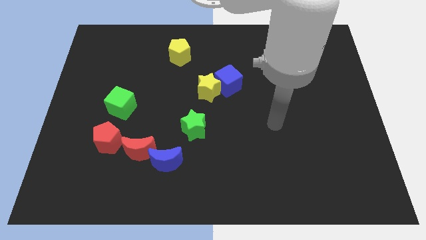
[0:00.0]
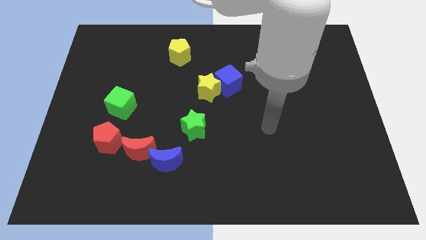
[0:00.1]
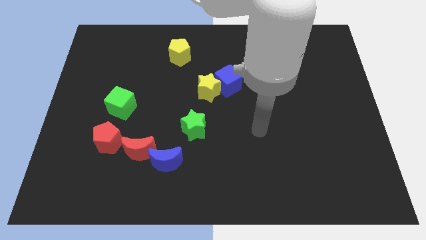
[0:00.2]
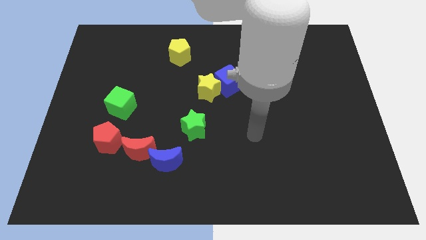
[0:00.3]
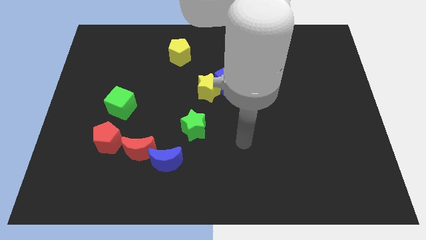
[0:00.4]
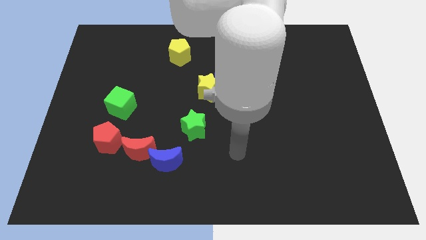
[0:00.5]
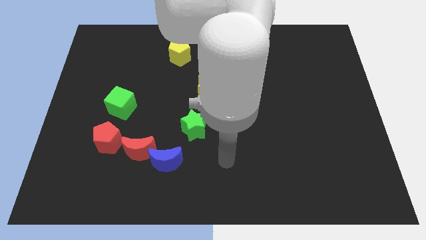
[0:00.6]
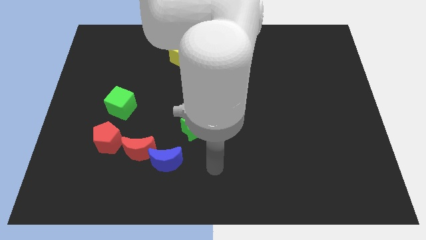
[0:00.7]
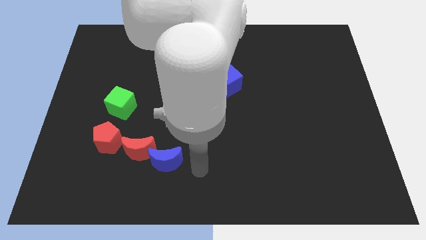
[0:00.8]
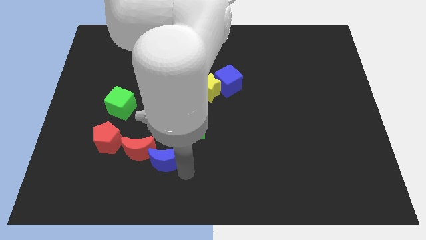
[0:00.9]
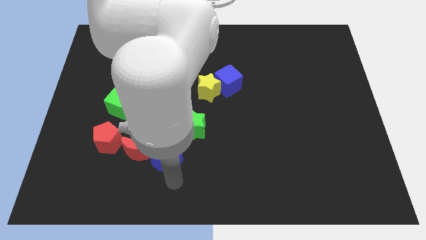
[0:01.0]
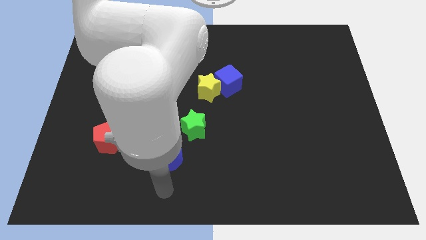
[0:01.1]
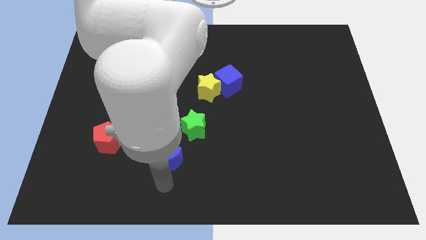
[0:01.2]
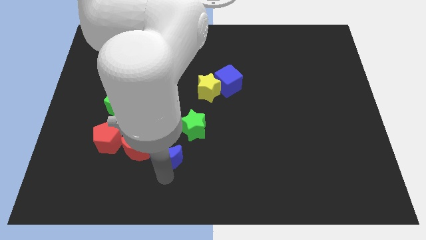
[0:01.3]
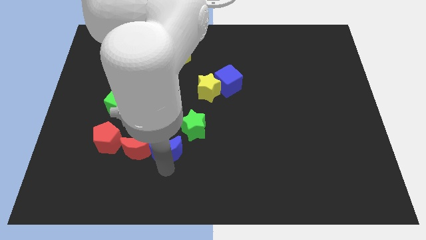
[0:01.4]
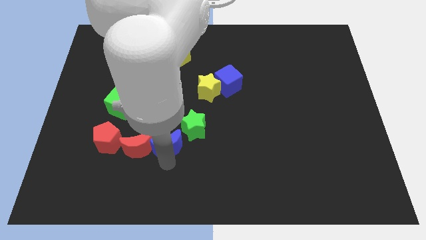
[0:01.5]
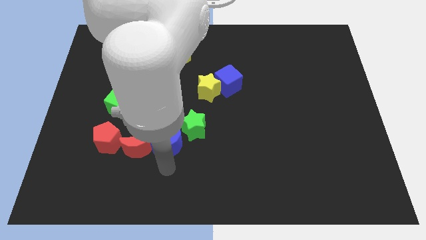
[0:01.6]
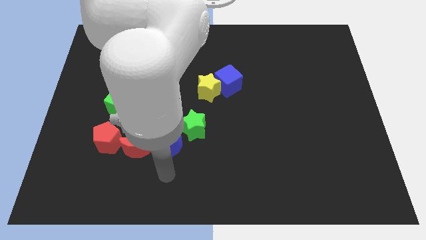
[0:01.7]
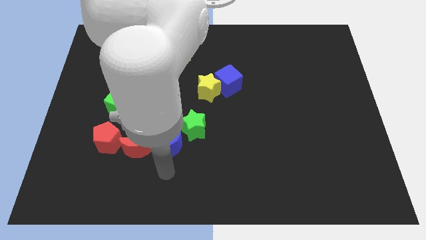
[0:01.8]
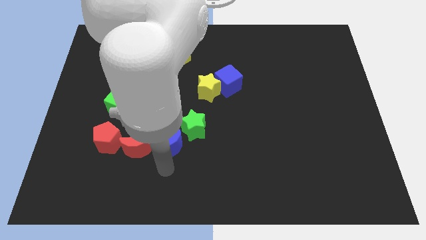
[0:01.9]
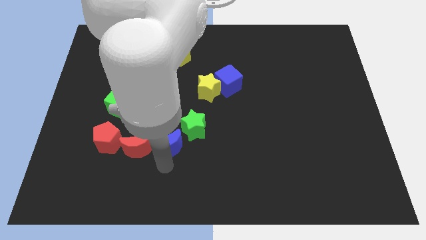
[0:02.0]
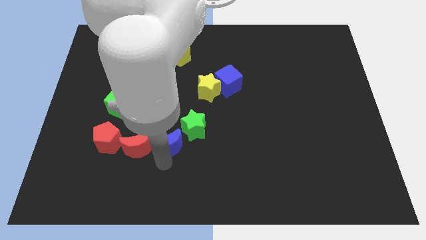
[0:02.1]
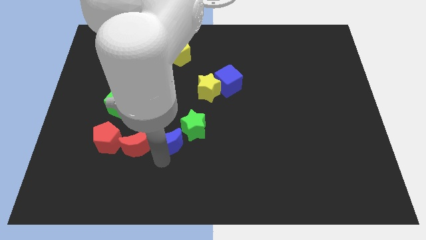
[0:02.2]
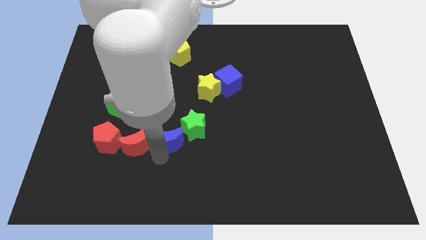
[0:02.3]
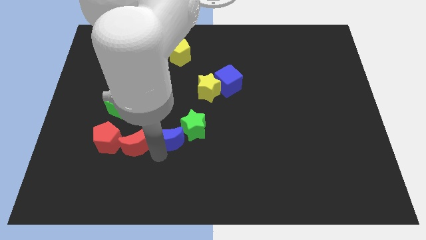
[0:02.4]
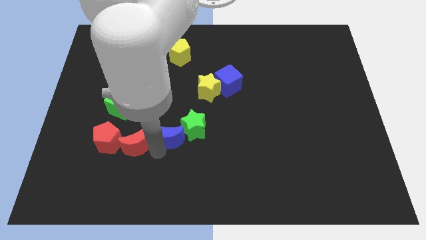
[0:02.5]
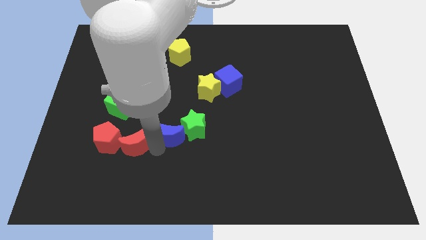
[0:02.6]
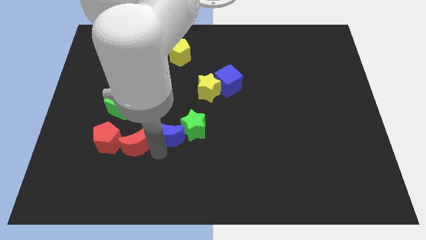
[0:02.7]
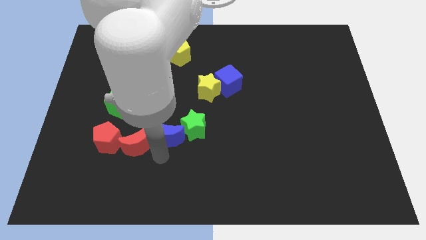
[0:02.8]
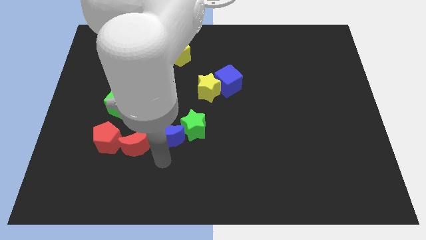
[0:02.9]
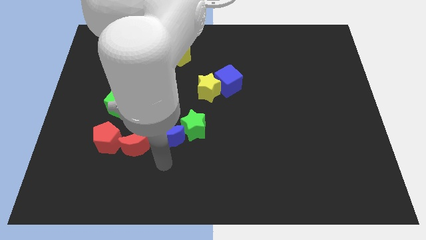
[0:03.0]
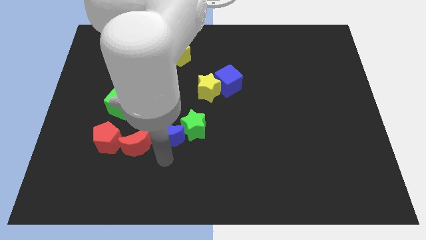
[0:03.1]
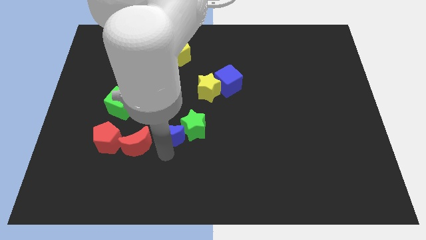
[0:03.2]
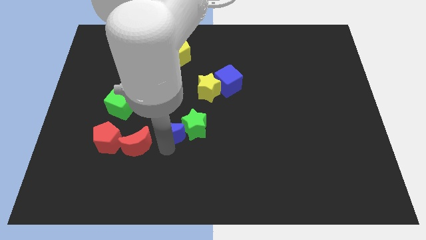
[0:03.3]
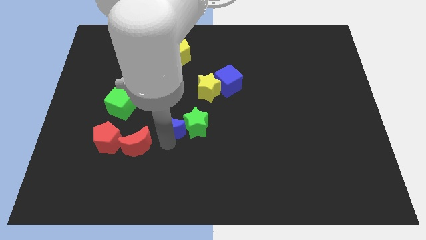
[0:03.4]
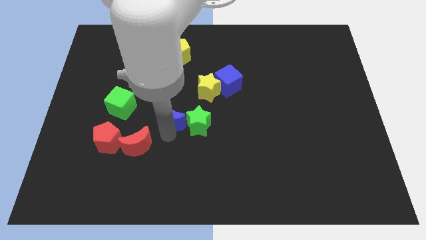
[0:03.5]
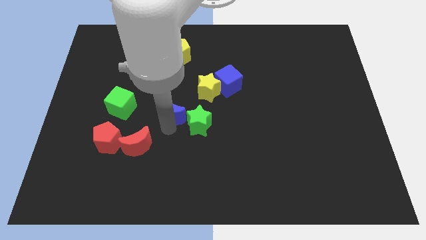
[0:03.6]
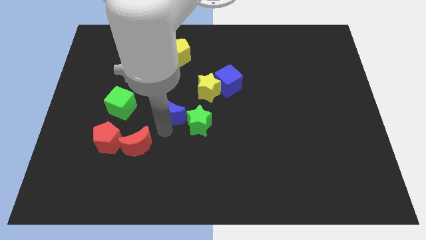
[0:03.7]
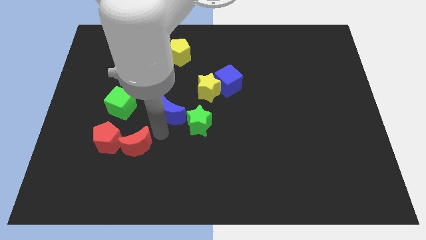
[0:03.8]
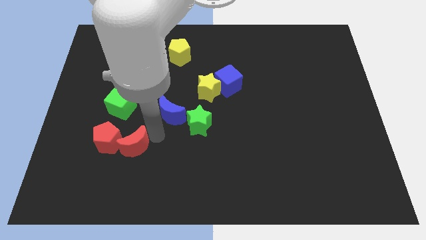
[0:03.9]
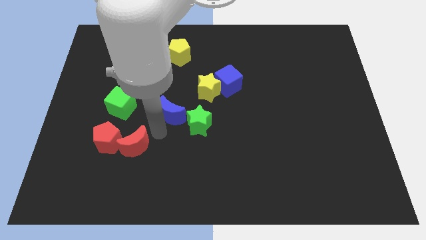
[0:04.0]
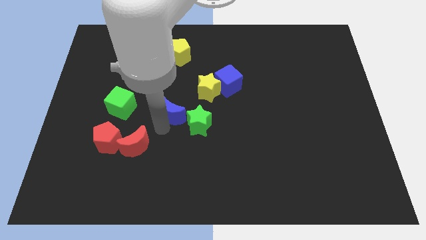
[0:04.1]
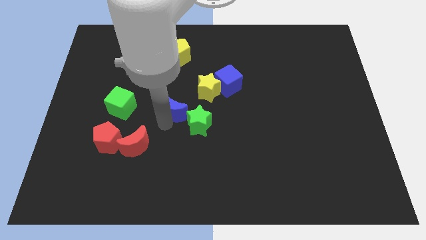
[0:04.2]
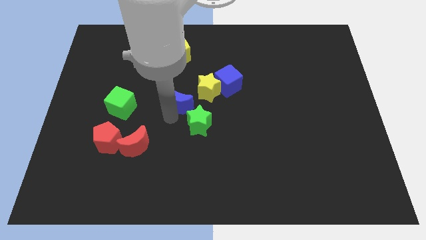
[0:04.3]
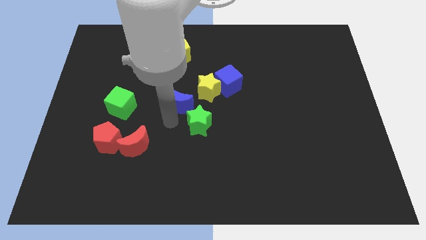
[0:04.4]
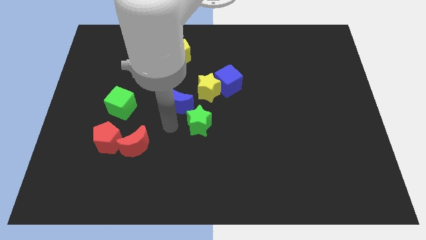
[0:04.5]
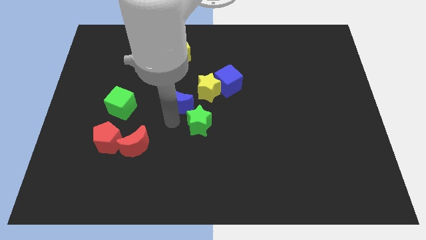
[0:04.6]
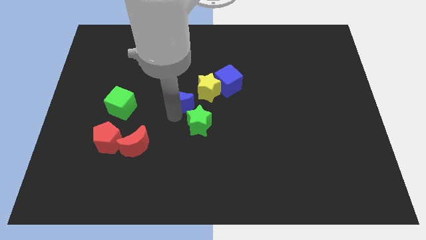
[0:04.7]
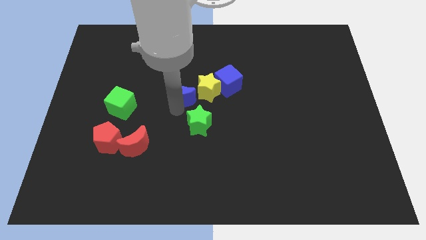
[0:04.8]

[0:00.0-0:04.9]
slide the blue moon left of the blue cube

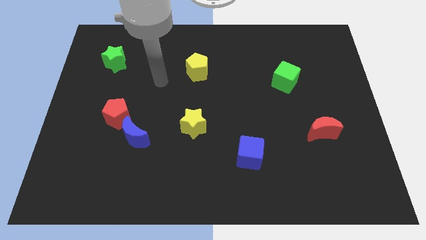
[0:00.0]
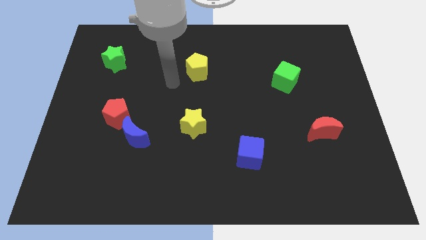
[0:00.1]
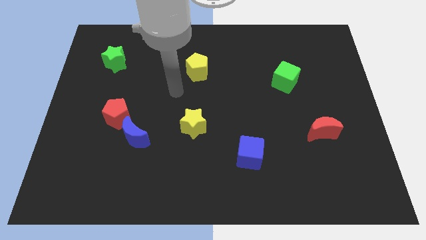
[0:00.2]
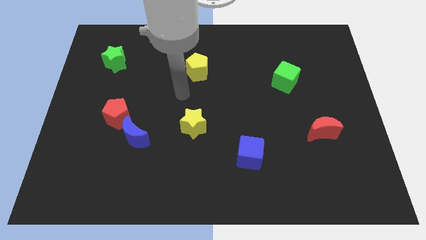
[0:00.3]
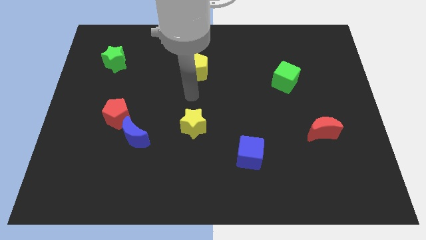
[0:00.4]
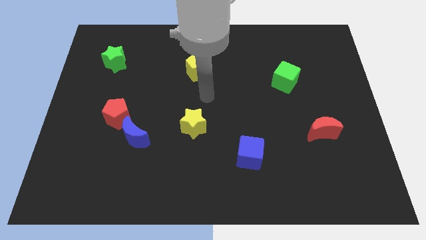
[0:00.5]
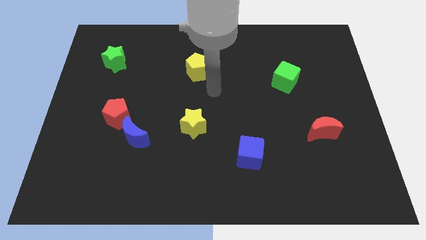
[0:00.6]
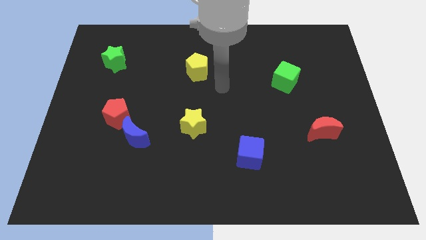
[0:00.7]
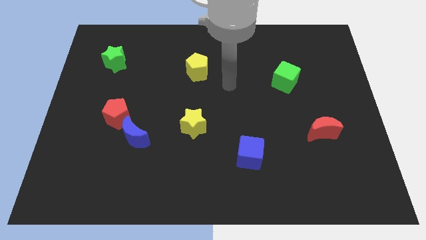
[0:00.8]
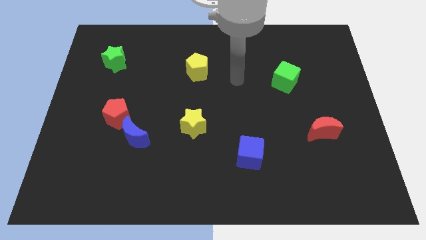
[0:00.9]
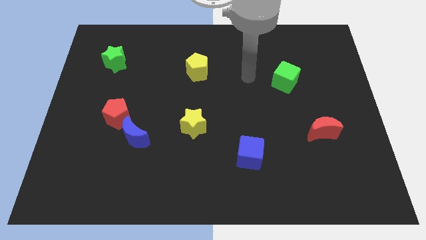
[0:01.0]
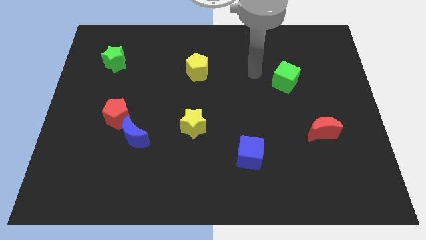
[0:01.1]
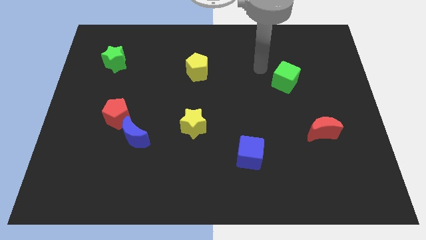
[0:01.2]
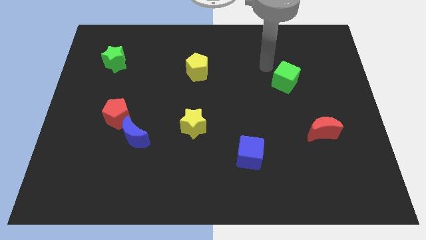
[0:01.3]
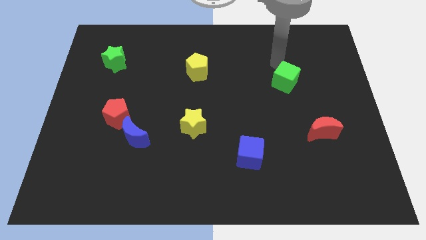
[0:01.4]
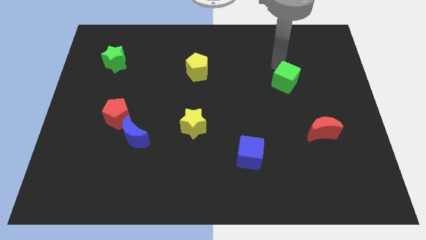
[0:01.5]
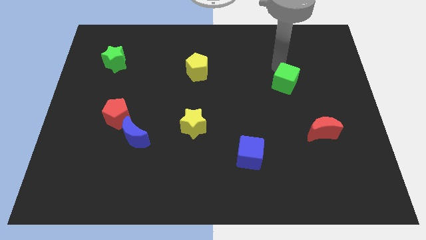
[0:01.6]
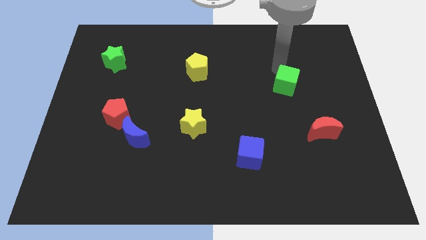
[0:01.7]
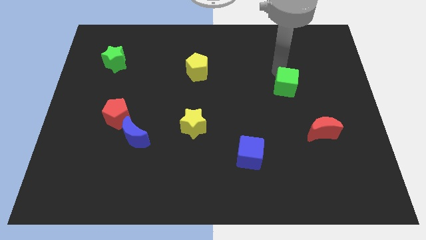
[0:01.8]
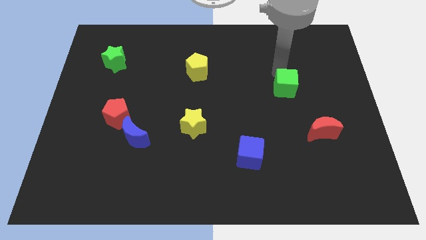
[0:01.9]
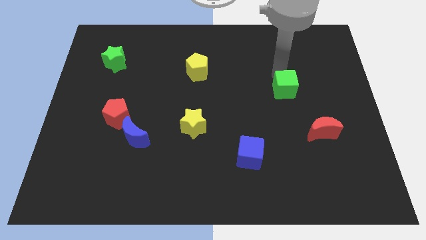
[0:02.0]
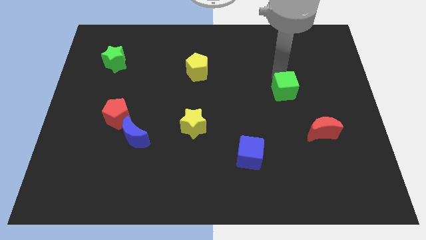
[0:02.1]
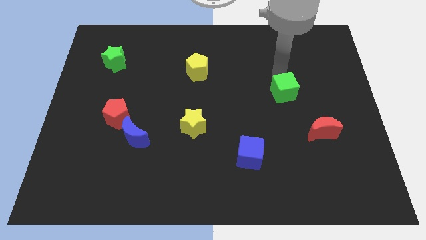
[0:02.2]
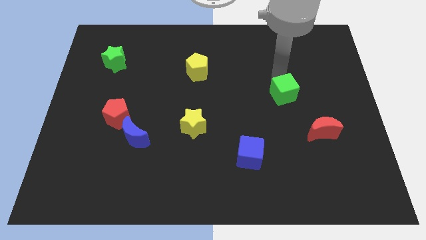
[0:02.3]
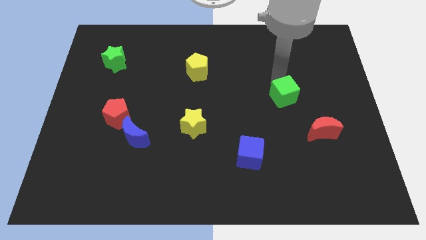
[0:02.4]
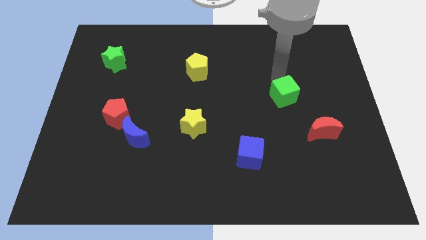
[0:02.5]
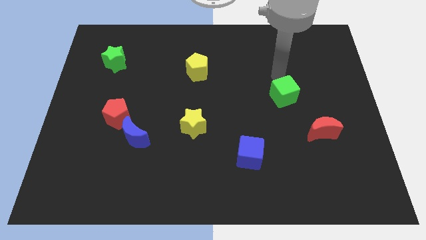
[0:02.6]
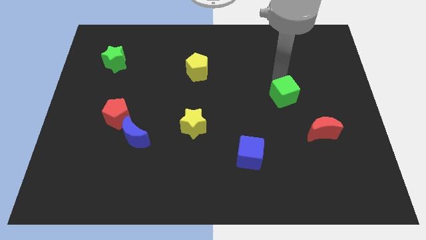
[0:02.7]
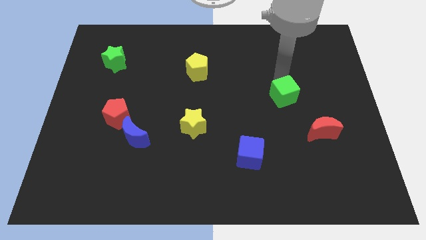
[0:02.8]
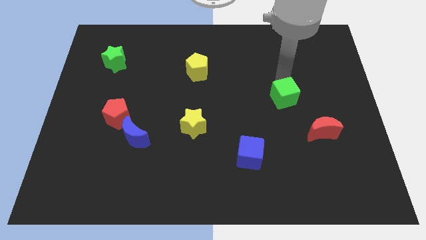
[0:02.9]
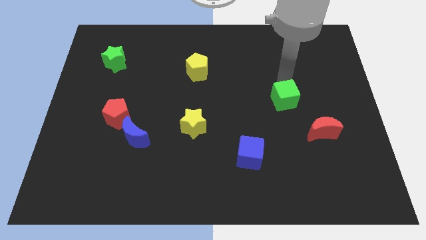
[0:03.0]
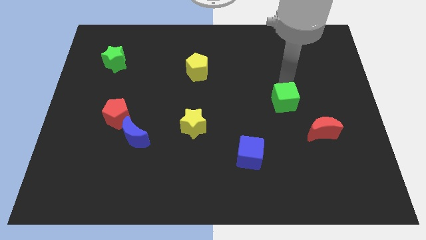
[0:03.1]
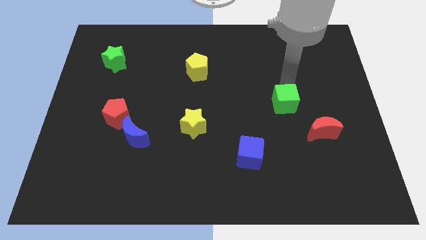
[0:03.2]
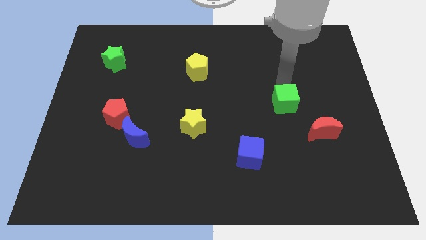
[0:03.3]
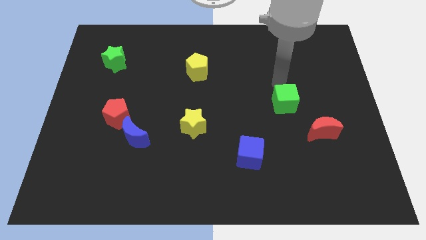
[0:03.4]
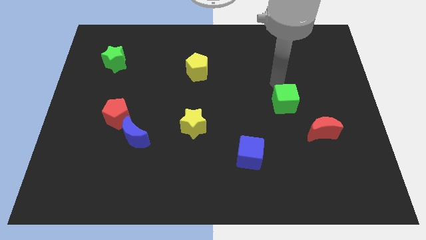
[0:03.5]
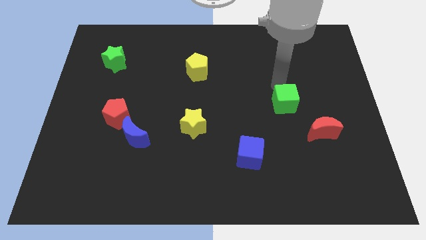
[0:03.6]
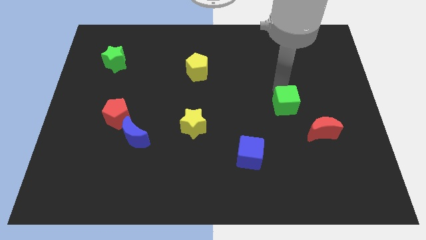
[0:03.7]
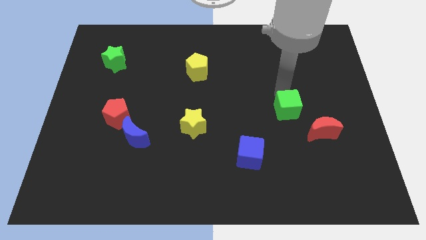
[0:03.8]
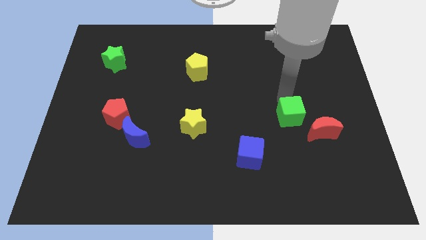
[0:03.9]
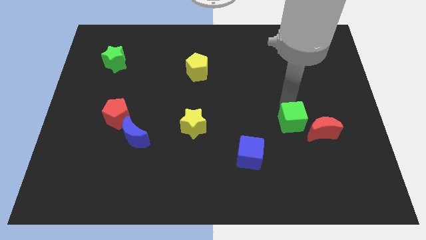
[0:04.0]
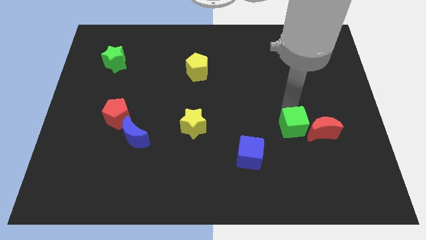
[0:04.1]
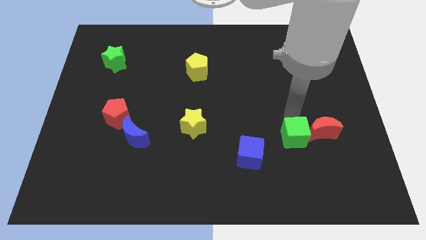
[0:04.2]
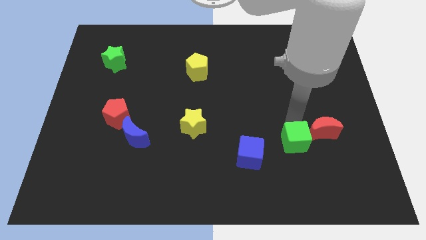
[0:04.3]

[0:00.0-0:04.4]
push the green cube to the right side of the blue cube
